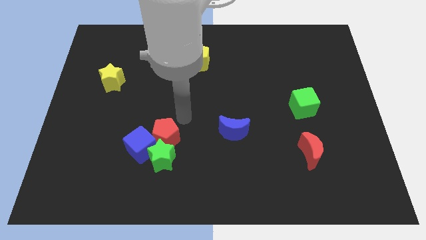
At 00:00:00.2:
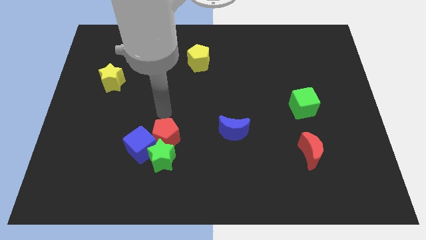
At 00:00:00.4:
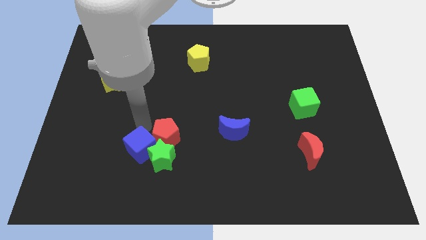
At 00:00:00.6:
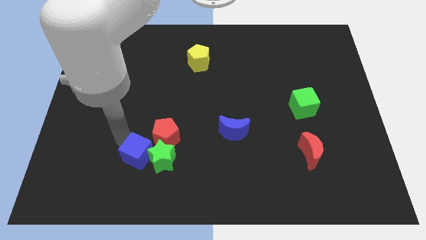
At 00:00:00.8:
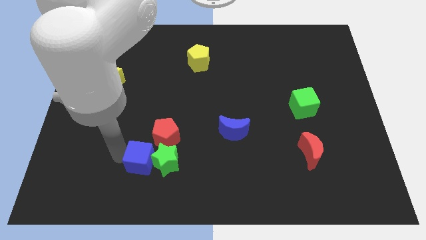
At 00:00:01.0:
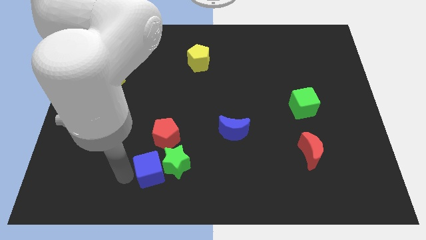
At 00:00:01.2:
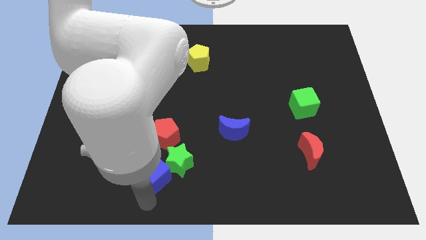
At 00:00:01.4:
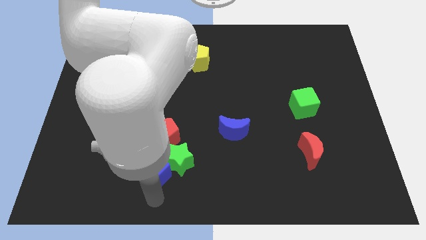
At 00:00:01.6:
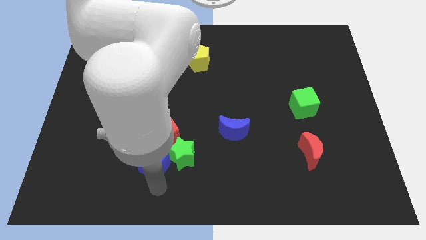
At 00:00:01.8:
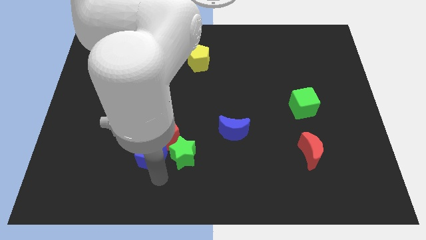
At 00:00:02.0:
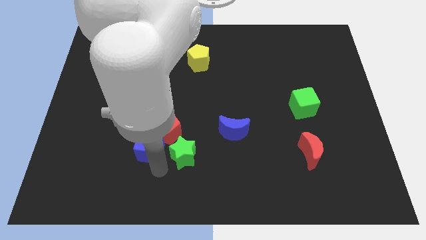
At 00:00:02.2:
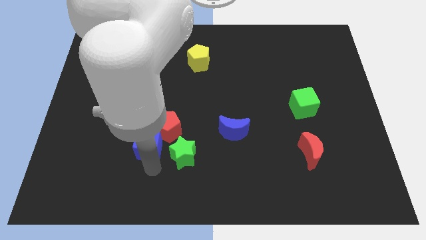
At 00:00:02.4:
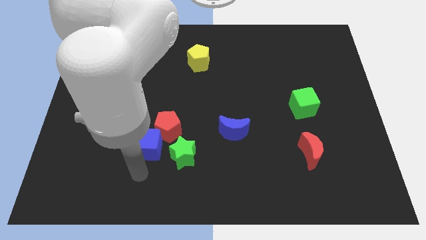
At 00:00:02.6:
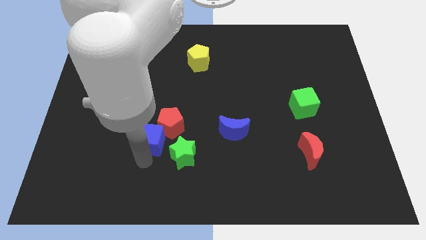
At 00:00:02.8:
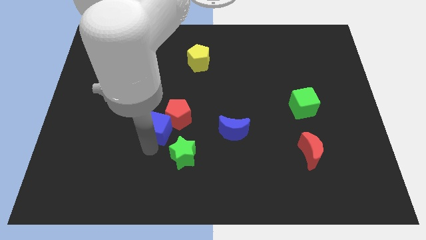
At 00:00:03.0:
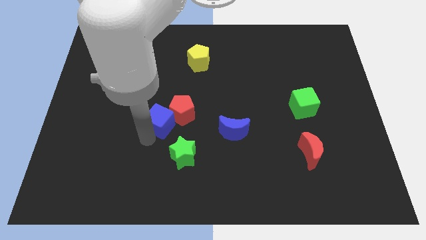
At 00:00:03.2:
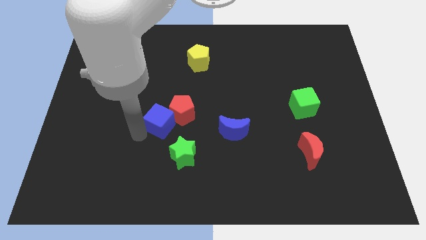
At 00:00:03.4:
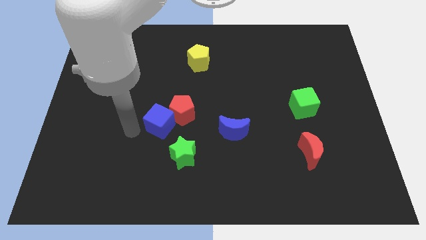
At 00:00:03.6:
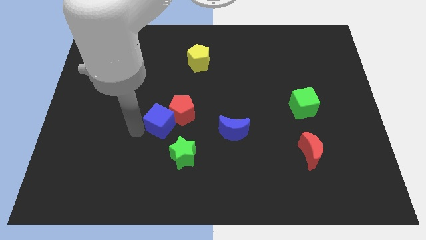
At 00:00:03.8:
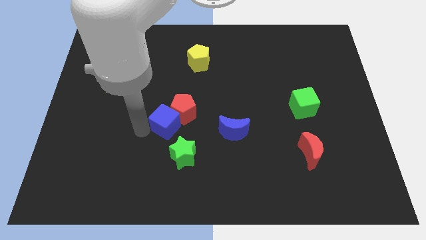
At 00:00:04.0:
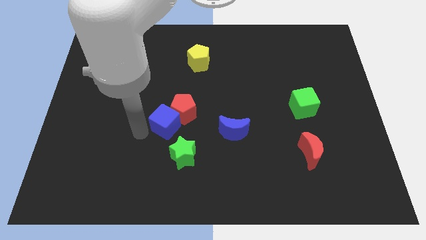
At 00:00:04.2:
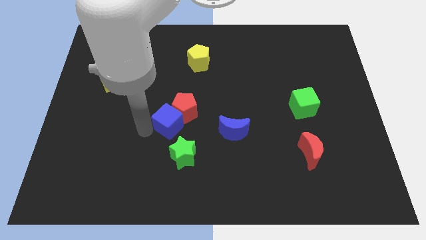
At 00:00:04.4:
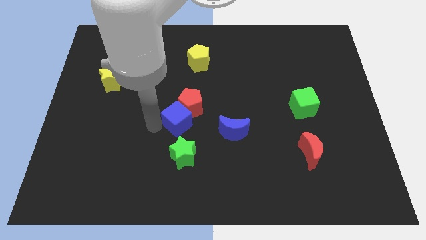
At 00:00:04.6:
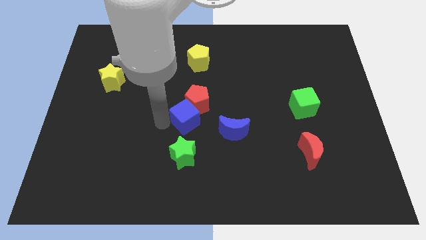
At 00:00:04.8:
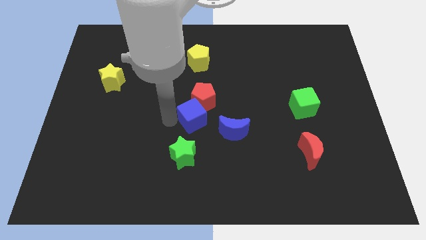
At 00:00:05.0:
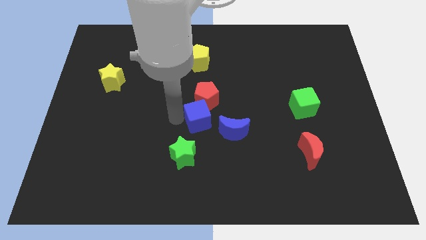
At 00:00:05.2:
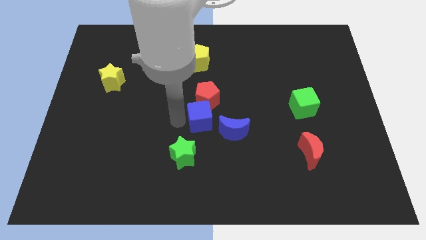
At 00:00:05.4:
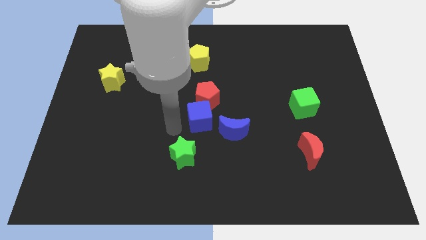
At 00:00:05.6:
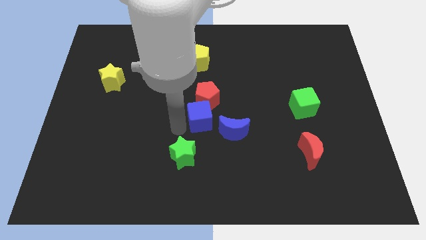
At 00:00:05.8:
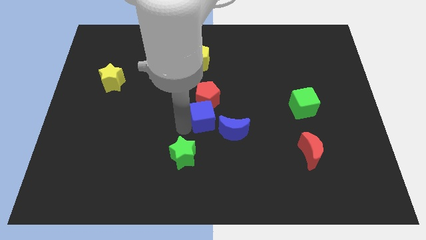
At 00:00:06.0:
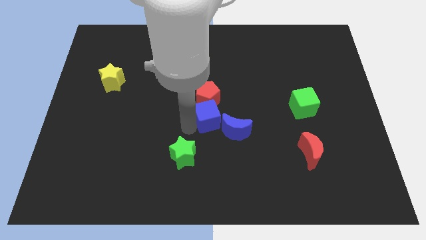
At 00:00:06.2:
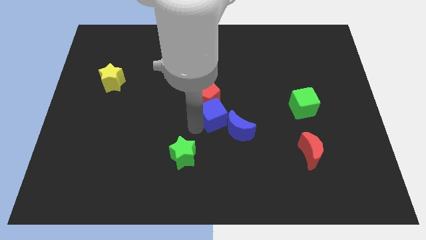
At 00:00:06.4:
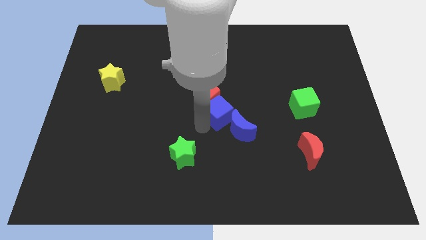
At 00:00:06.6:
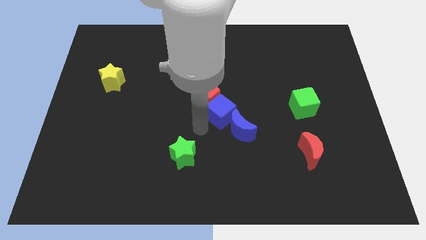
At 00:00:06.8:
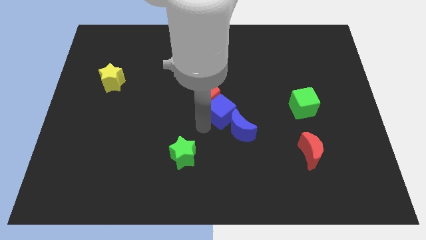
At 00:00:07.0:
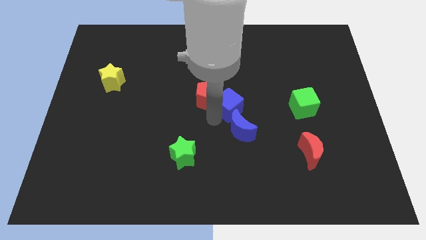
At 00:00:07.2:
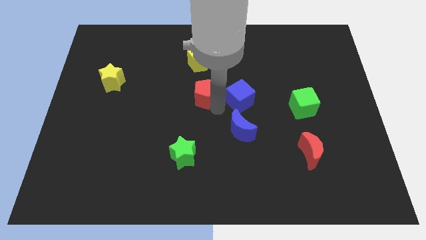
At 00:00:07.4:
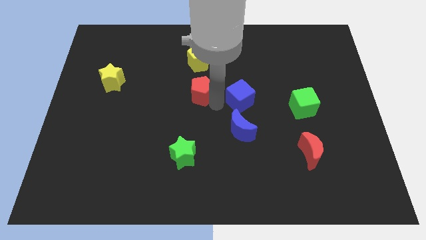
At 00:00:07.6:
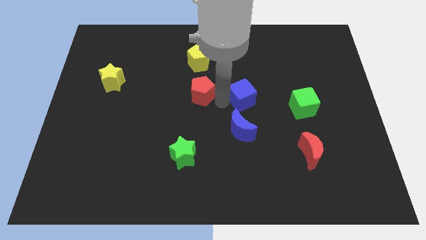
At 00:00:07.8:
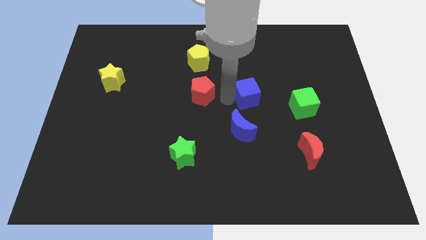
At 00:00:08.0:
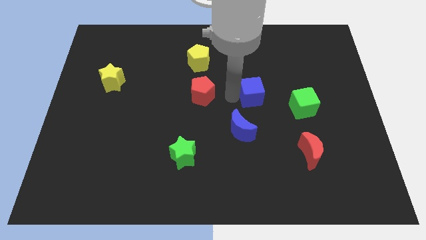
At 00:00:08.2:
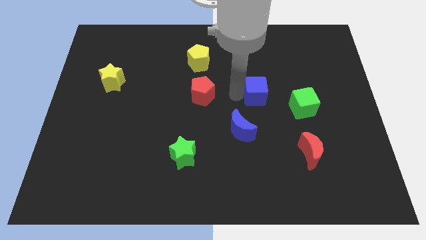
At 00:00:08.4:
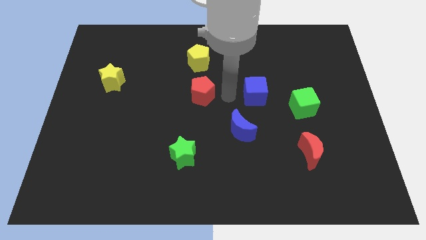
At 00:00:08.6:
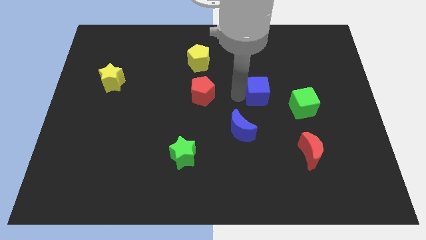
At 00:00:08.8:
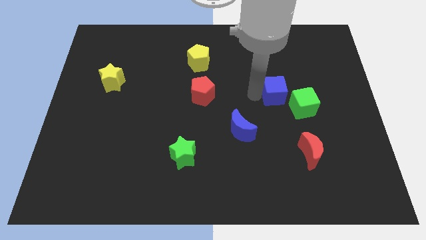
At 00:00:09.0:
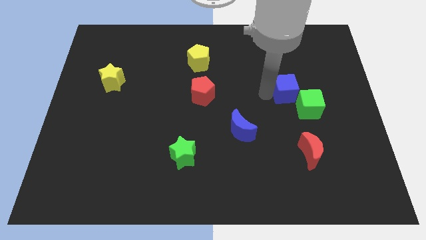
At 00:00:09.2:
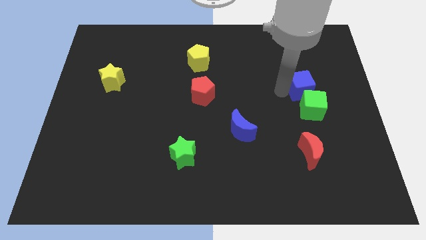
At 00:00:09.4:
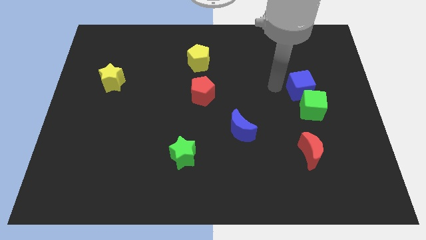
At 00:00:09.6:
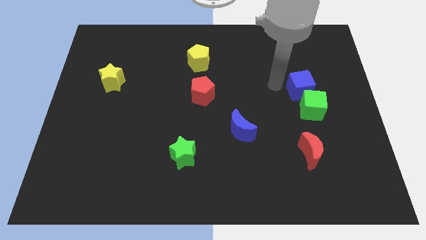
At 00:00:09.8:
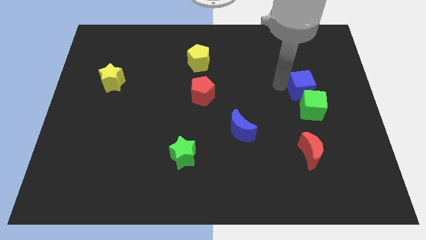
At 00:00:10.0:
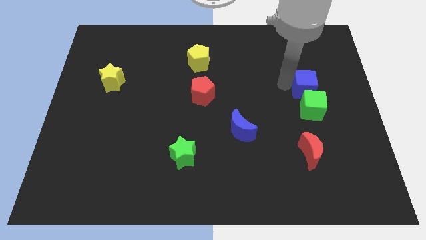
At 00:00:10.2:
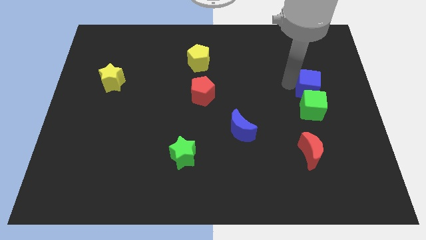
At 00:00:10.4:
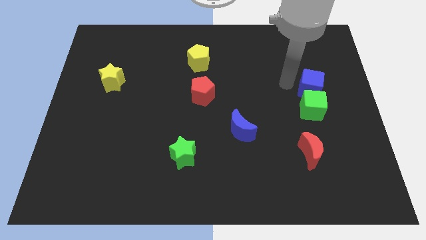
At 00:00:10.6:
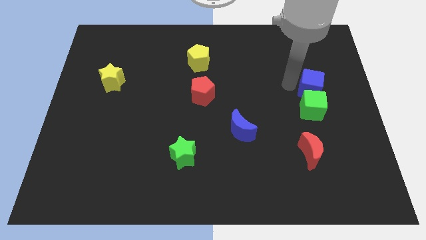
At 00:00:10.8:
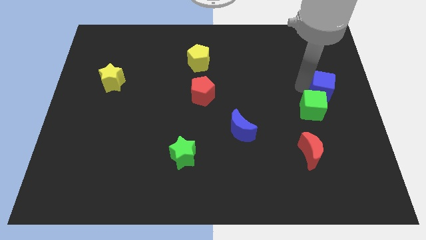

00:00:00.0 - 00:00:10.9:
put the blue cube to the right side of the board
